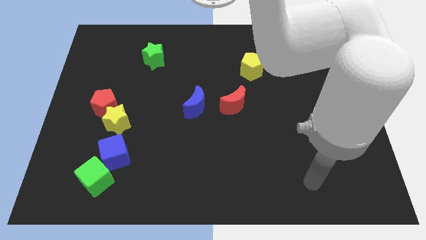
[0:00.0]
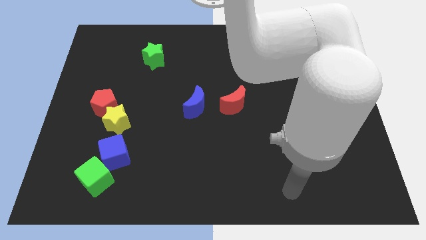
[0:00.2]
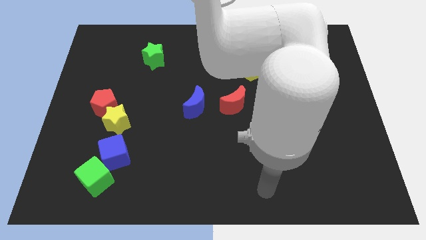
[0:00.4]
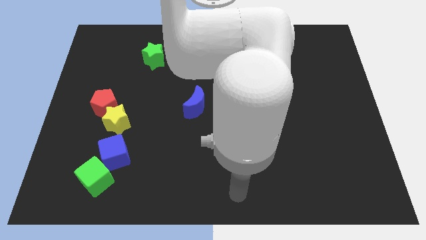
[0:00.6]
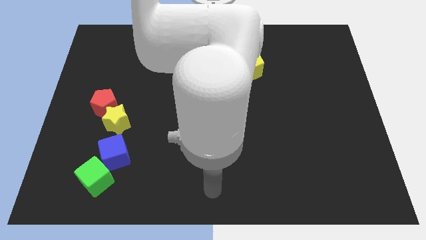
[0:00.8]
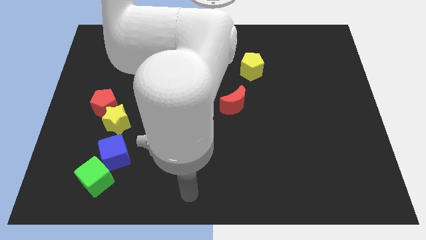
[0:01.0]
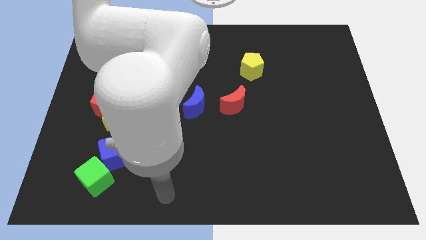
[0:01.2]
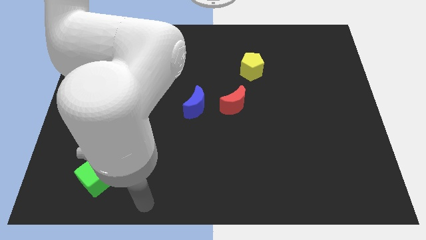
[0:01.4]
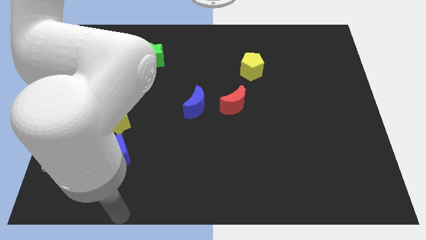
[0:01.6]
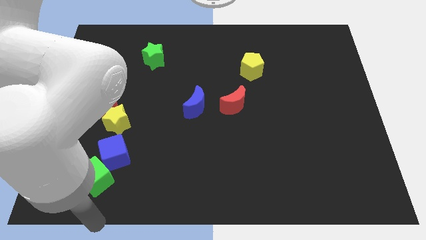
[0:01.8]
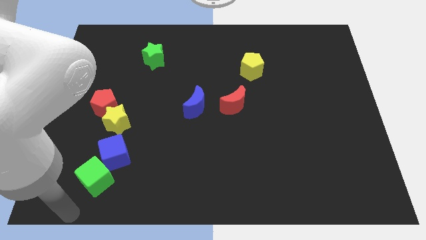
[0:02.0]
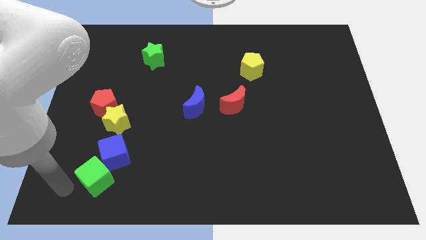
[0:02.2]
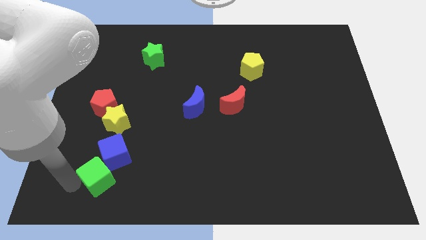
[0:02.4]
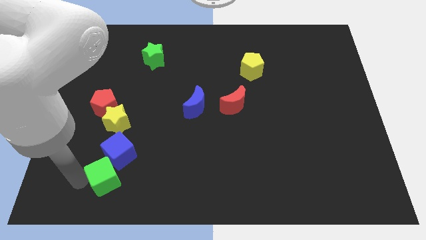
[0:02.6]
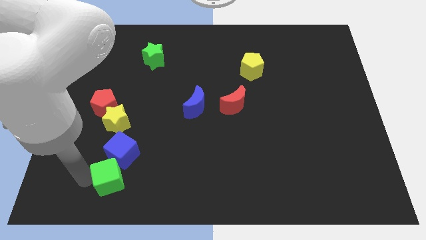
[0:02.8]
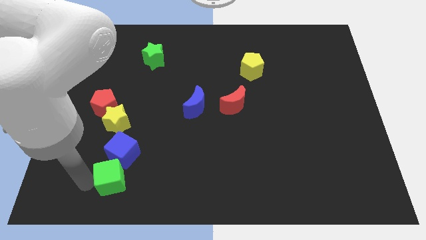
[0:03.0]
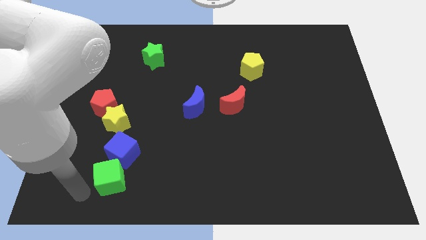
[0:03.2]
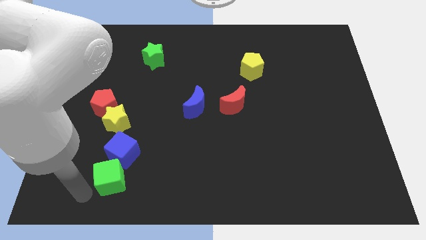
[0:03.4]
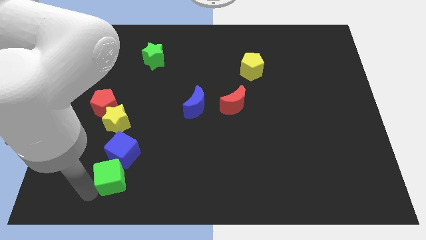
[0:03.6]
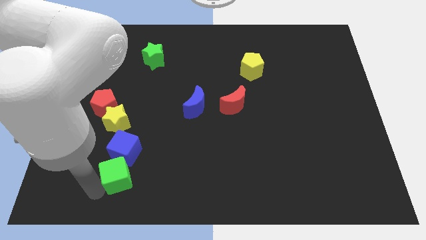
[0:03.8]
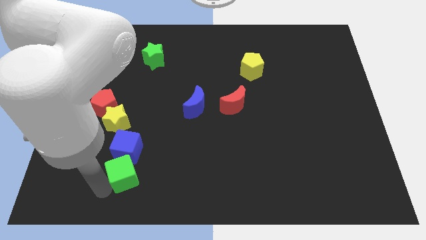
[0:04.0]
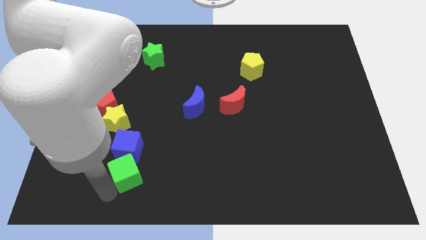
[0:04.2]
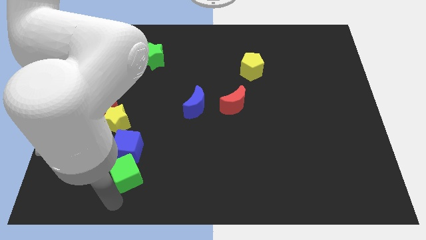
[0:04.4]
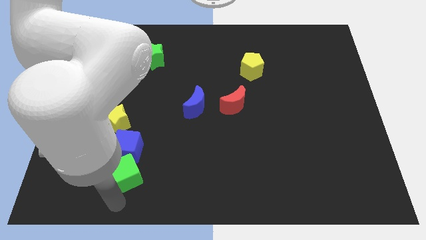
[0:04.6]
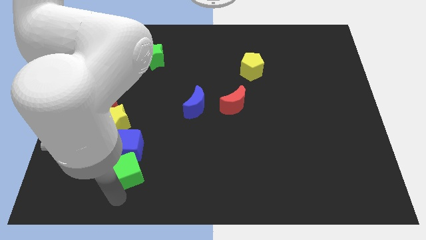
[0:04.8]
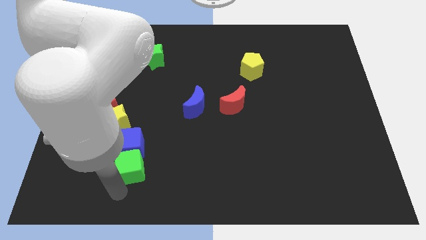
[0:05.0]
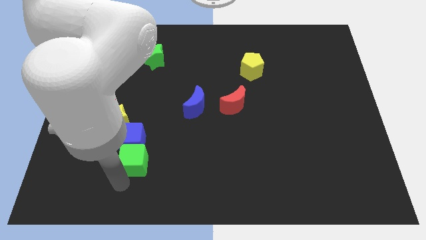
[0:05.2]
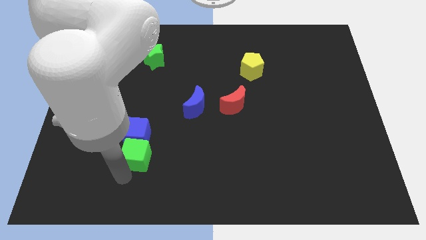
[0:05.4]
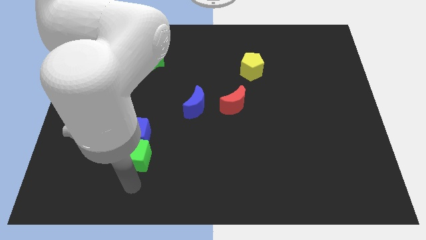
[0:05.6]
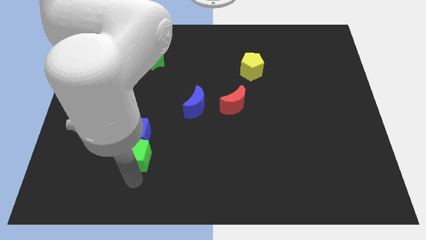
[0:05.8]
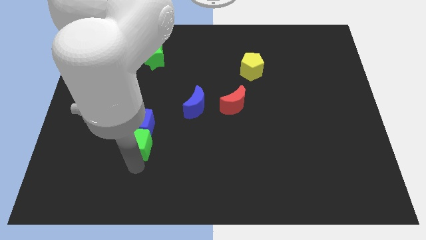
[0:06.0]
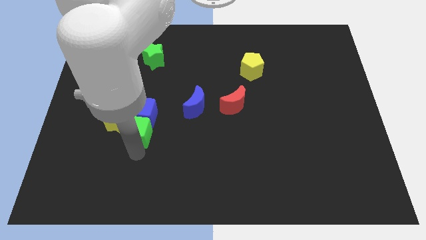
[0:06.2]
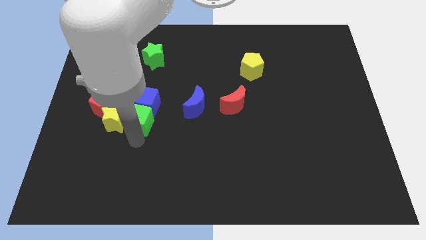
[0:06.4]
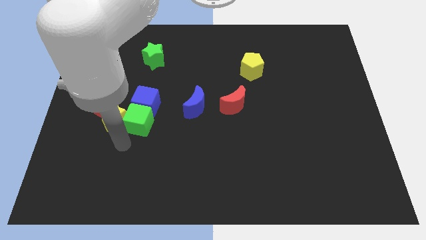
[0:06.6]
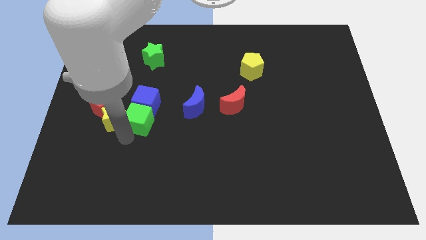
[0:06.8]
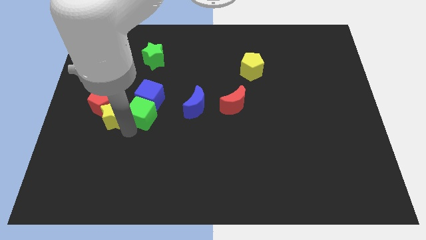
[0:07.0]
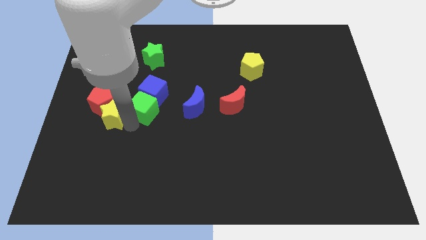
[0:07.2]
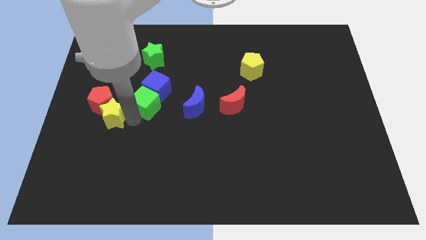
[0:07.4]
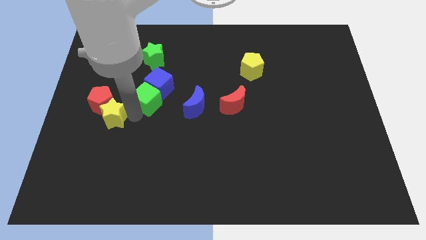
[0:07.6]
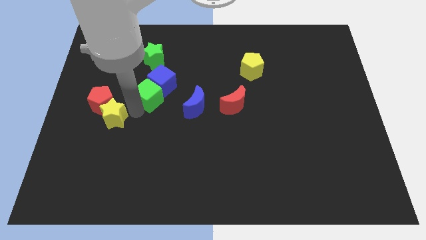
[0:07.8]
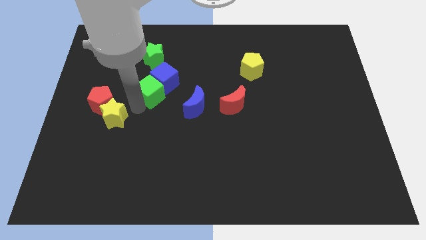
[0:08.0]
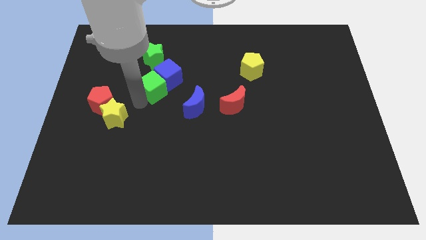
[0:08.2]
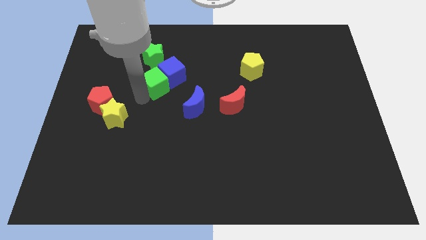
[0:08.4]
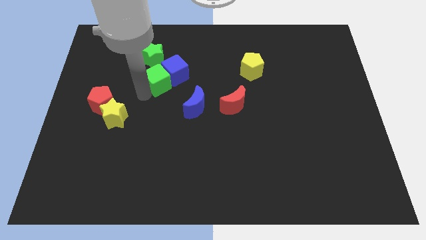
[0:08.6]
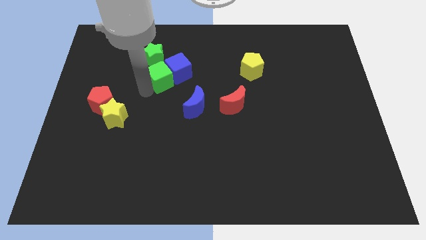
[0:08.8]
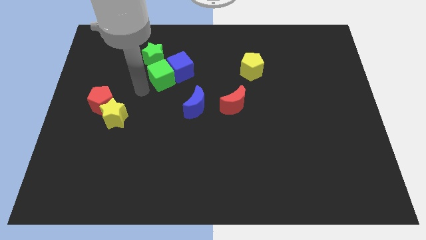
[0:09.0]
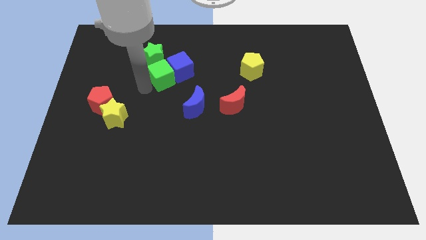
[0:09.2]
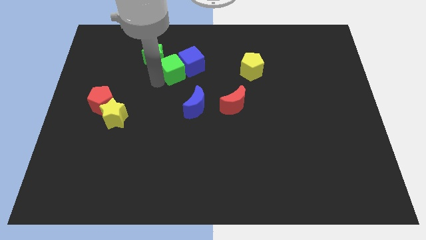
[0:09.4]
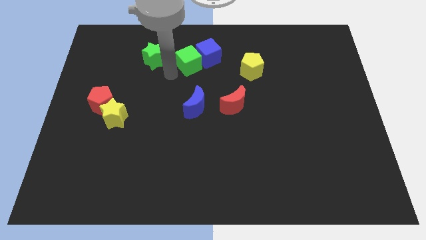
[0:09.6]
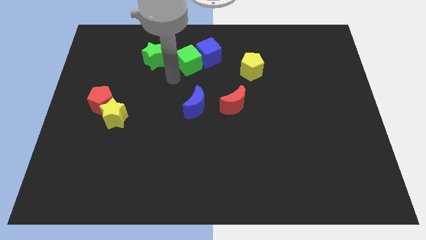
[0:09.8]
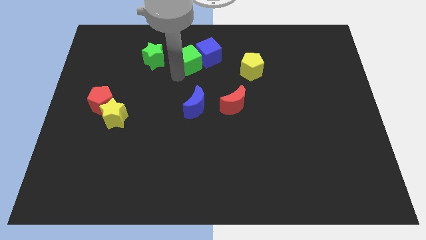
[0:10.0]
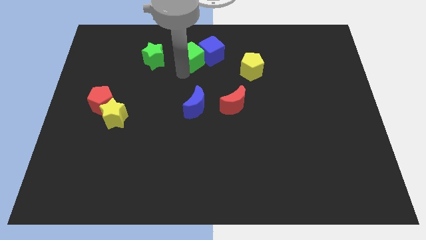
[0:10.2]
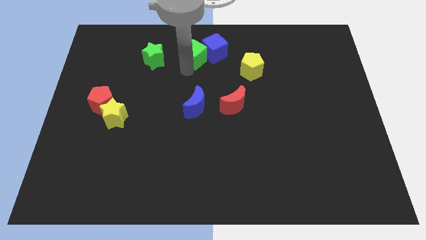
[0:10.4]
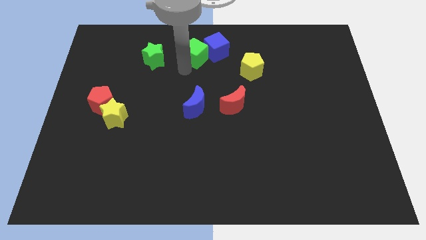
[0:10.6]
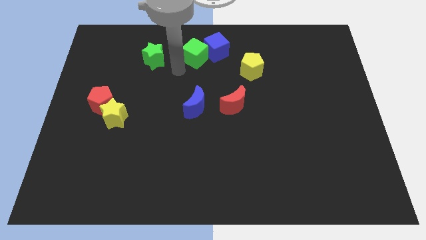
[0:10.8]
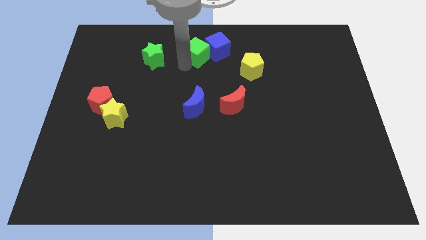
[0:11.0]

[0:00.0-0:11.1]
slide the green cube to the towards your base

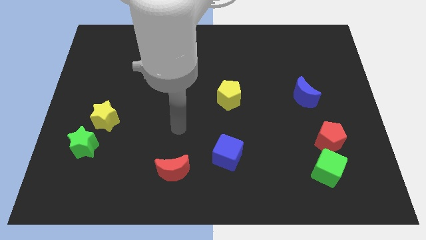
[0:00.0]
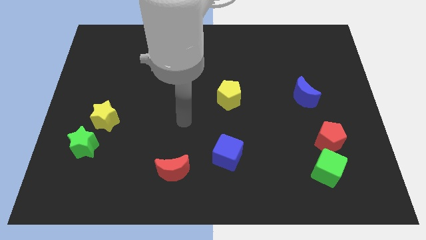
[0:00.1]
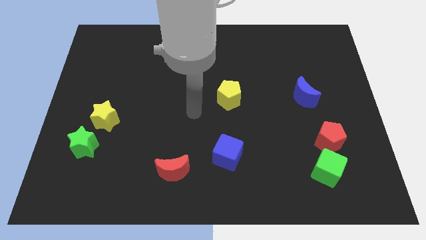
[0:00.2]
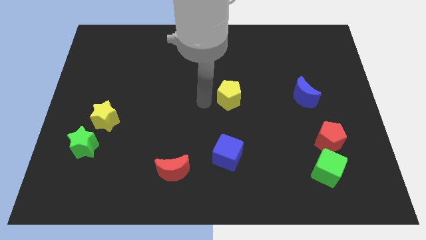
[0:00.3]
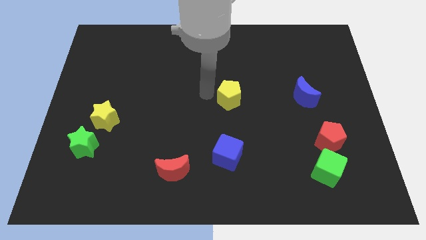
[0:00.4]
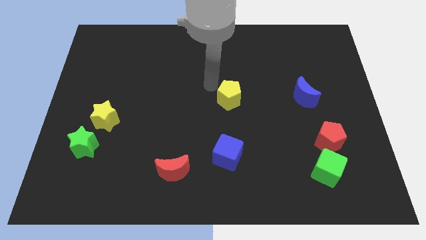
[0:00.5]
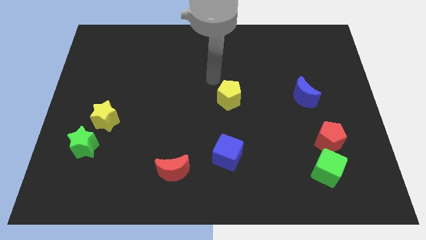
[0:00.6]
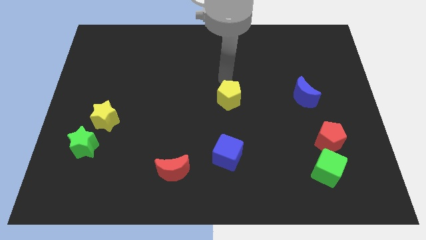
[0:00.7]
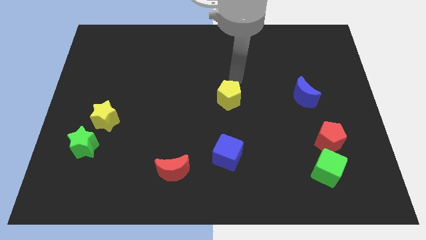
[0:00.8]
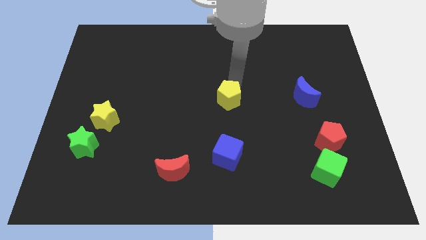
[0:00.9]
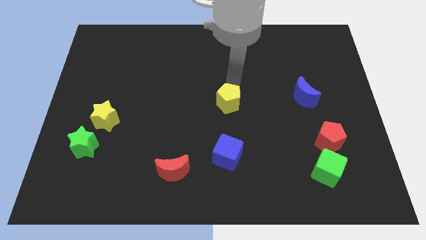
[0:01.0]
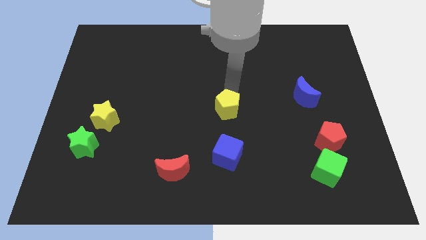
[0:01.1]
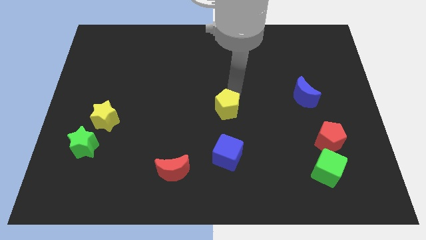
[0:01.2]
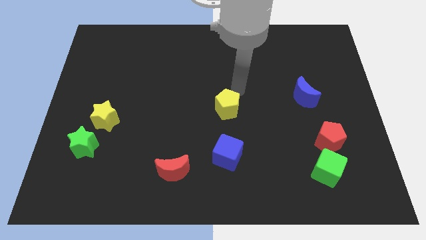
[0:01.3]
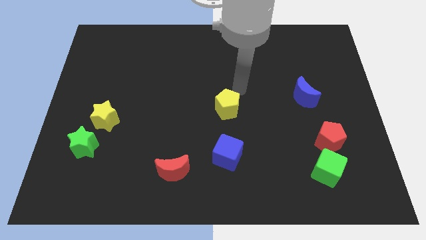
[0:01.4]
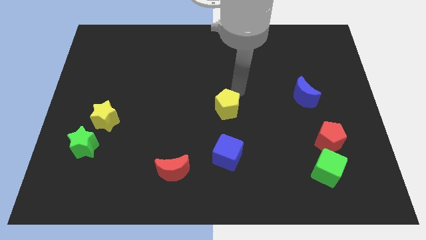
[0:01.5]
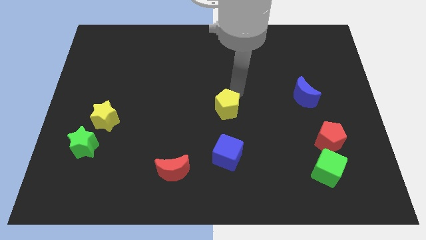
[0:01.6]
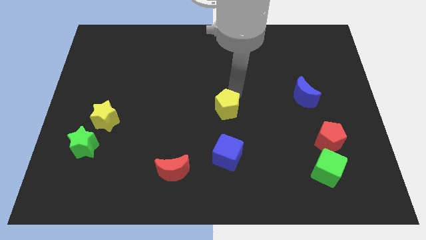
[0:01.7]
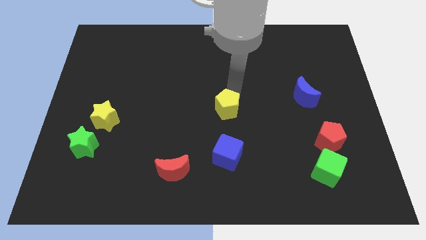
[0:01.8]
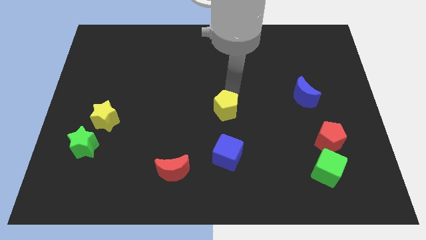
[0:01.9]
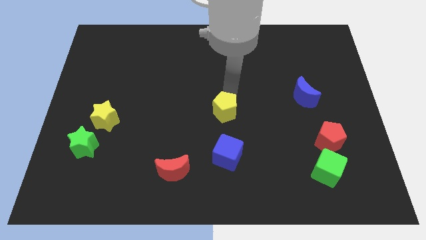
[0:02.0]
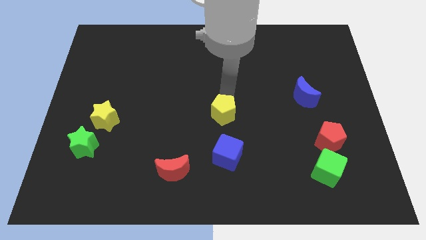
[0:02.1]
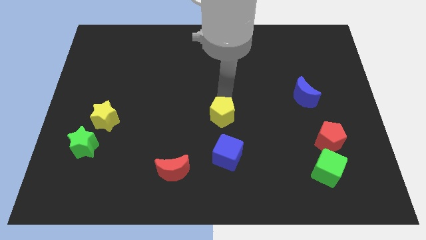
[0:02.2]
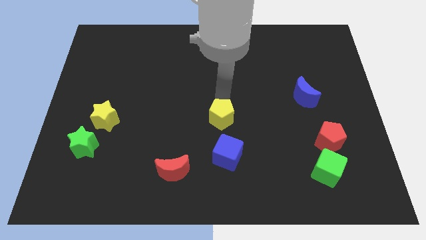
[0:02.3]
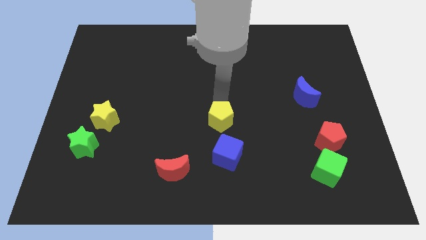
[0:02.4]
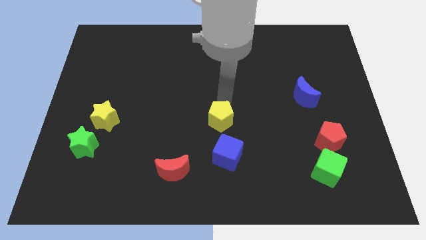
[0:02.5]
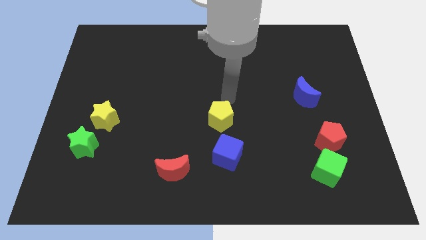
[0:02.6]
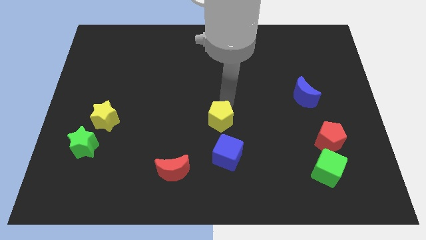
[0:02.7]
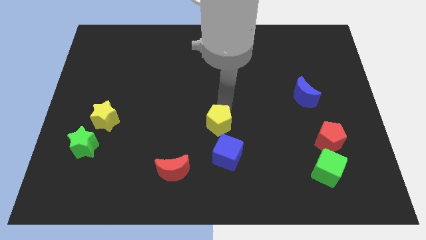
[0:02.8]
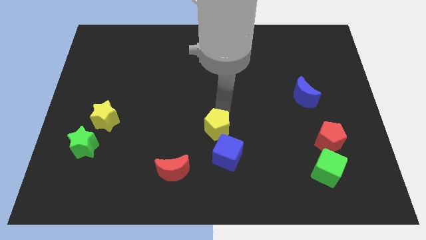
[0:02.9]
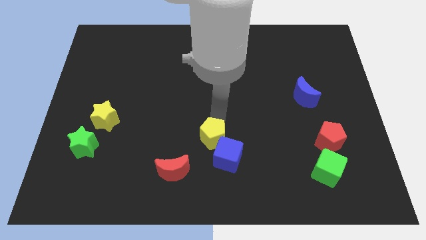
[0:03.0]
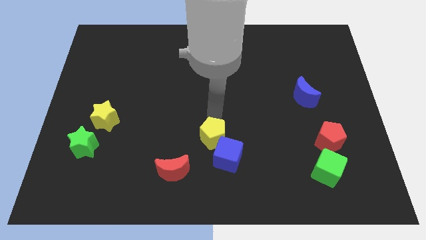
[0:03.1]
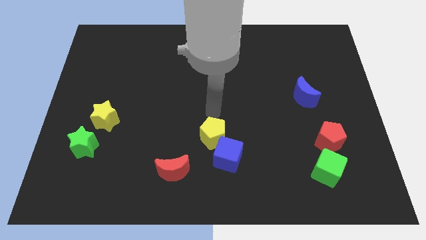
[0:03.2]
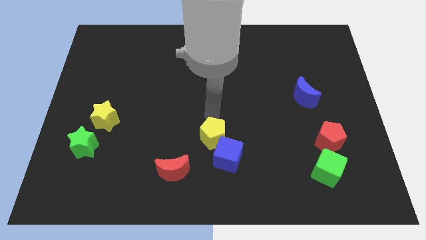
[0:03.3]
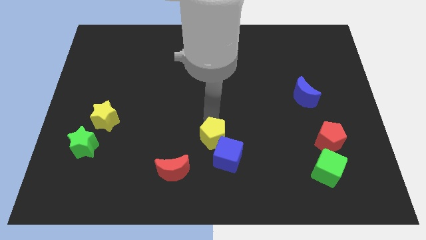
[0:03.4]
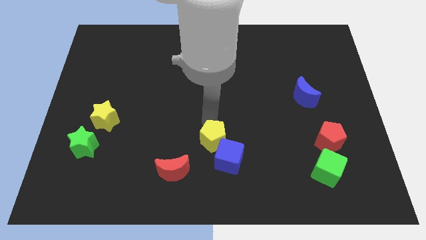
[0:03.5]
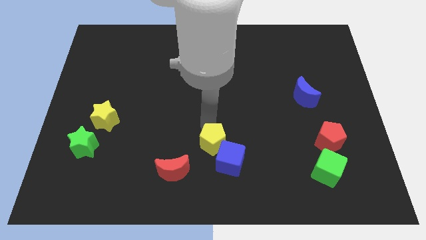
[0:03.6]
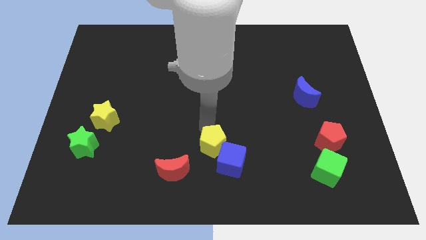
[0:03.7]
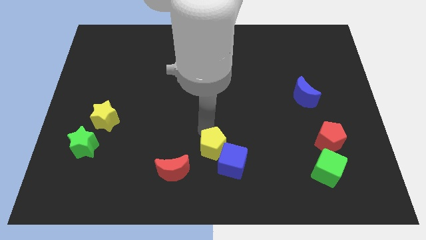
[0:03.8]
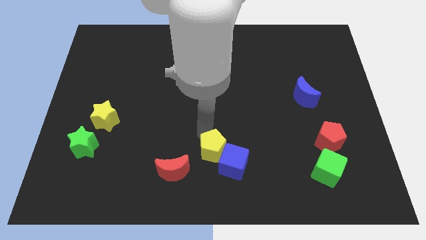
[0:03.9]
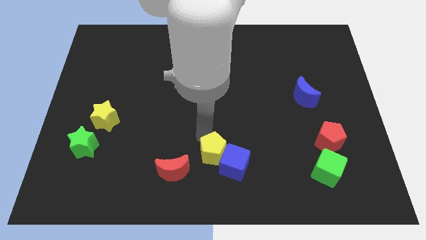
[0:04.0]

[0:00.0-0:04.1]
push the yellow pentagon to the bottom side
